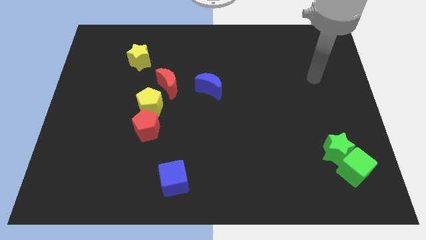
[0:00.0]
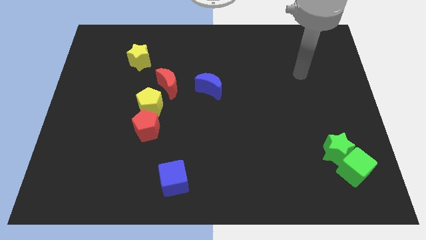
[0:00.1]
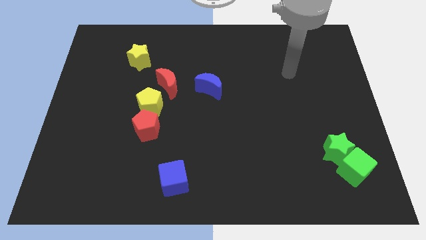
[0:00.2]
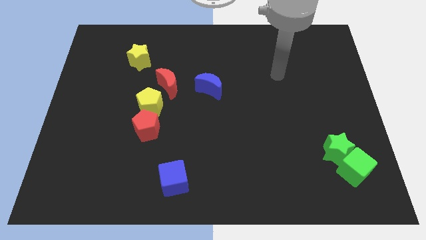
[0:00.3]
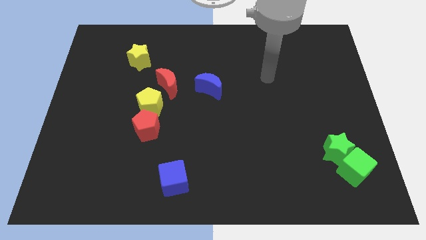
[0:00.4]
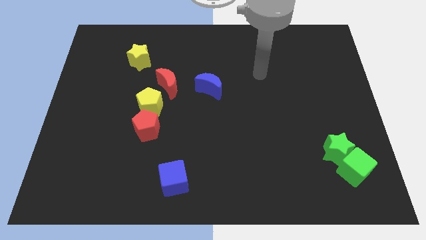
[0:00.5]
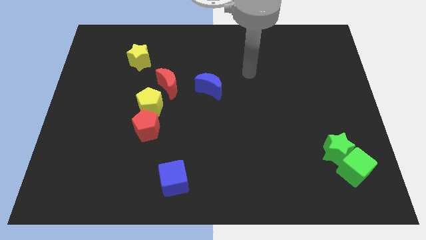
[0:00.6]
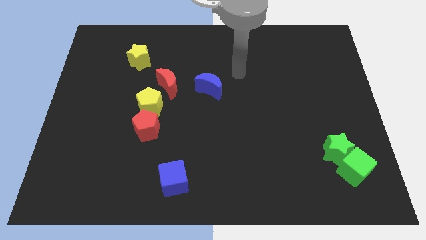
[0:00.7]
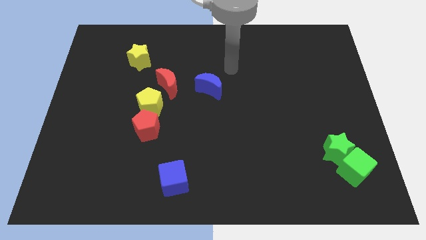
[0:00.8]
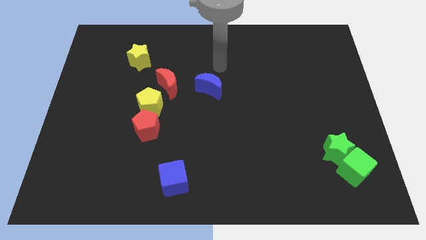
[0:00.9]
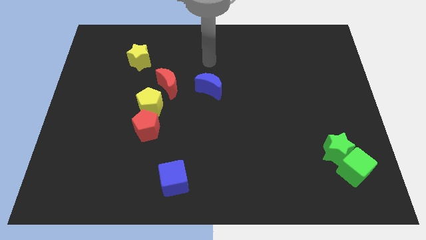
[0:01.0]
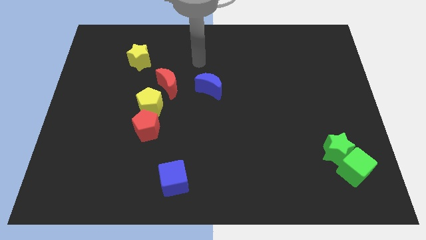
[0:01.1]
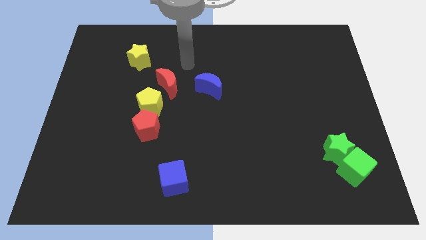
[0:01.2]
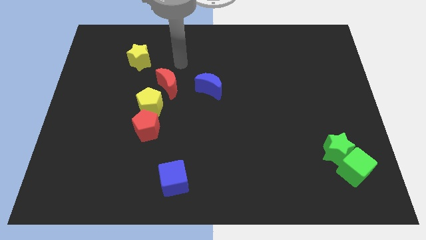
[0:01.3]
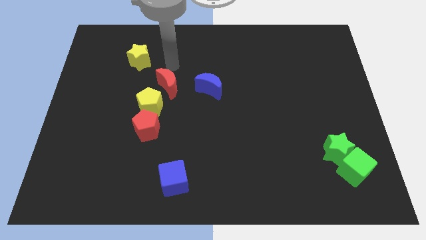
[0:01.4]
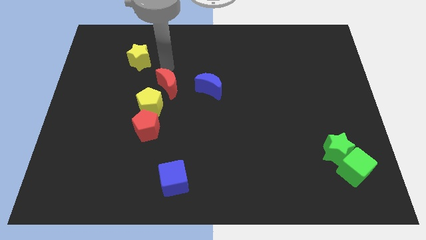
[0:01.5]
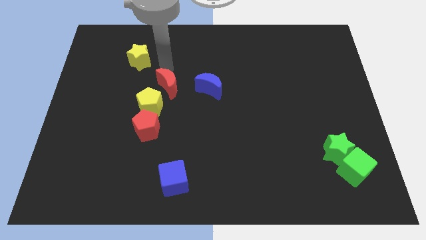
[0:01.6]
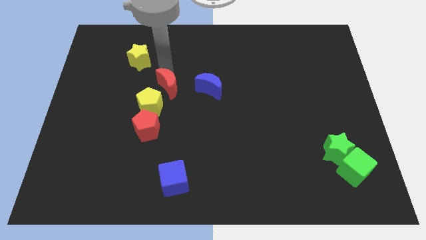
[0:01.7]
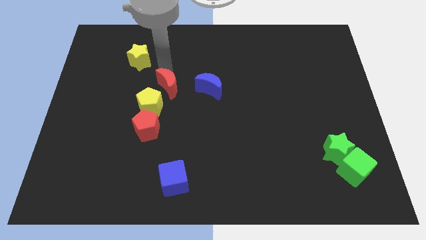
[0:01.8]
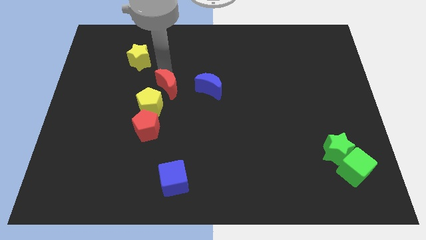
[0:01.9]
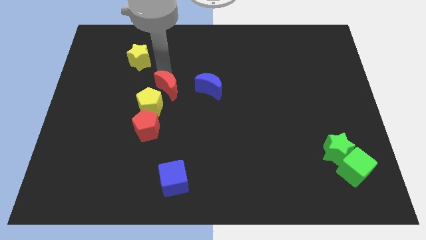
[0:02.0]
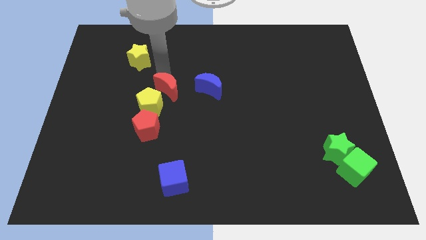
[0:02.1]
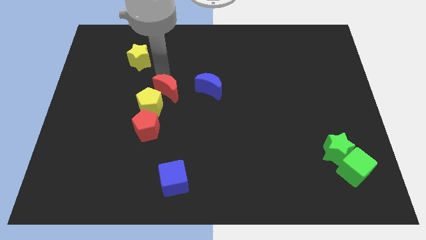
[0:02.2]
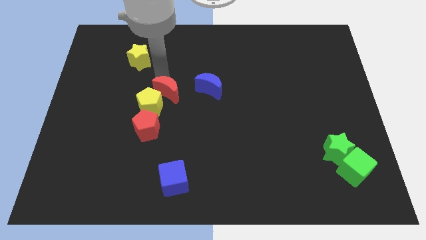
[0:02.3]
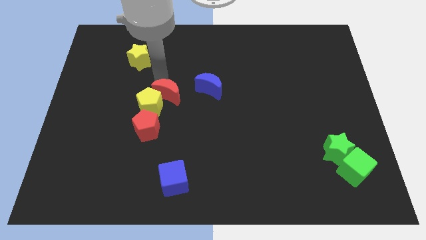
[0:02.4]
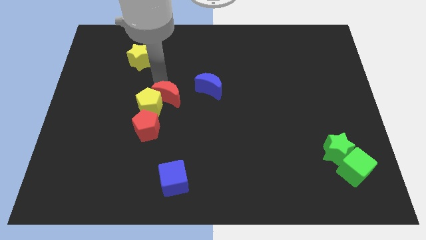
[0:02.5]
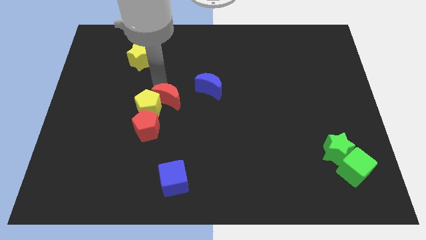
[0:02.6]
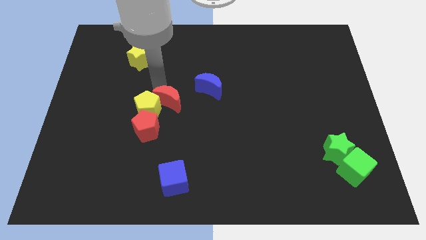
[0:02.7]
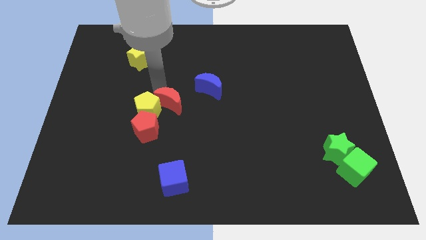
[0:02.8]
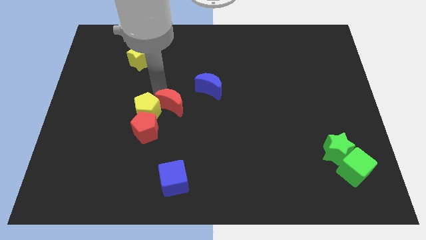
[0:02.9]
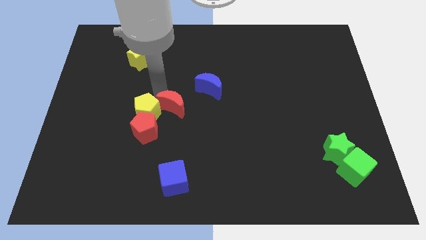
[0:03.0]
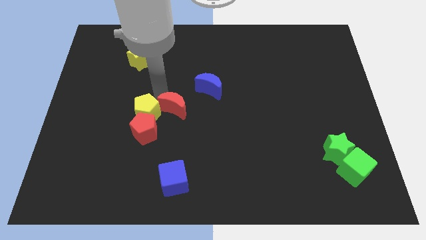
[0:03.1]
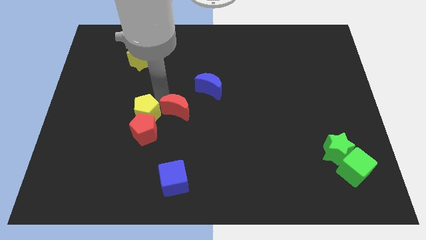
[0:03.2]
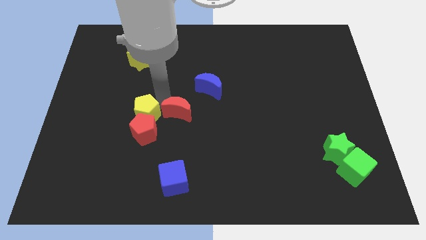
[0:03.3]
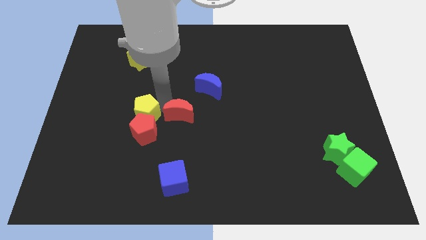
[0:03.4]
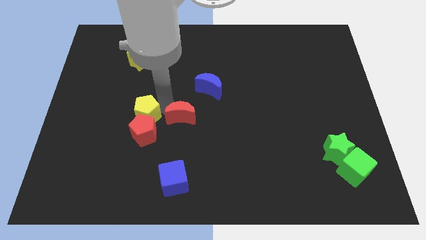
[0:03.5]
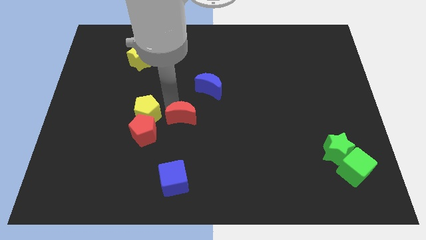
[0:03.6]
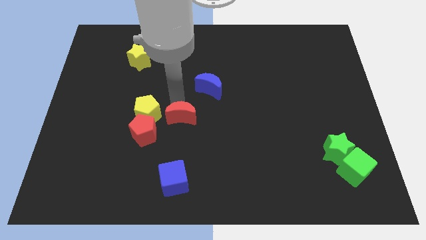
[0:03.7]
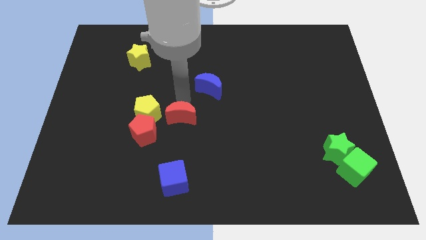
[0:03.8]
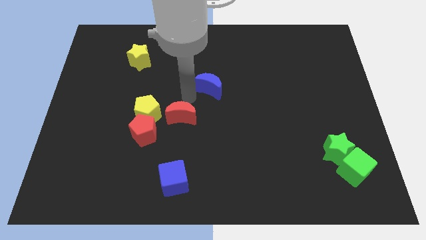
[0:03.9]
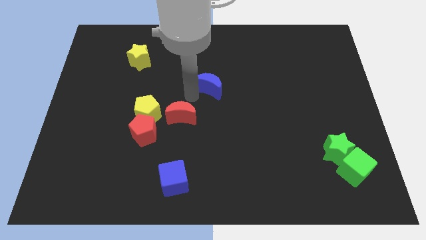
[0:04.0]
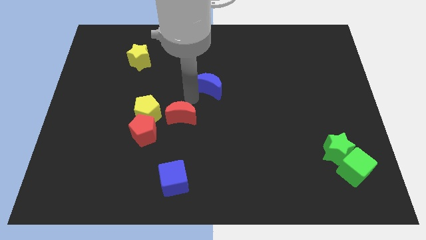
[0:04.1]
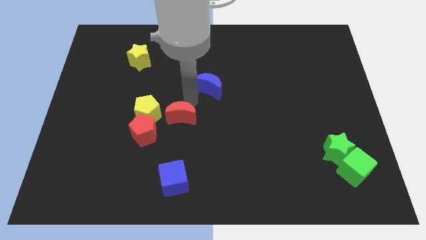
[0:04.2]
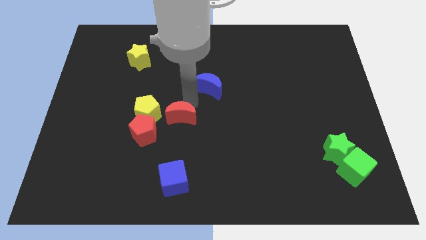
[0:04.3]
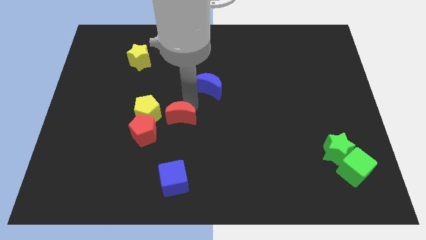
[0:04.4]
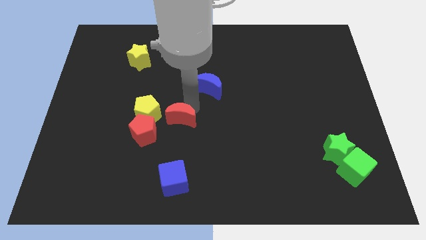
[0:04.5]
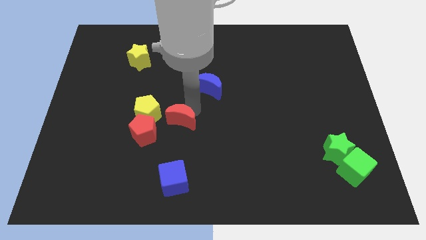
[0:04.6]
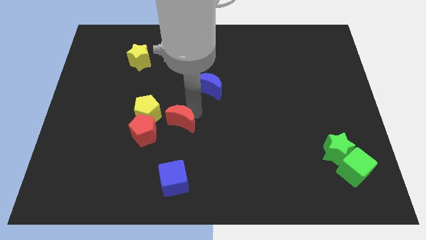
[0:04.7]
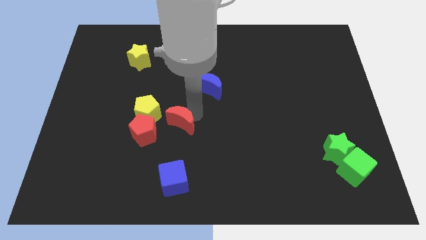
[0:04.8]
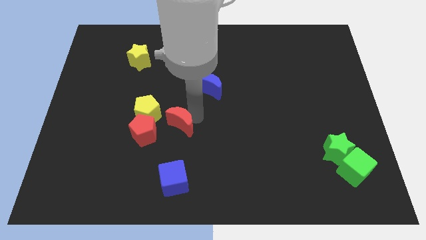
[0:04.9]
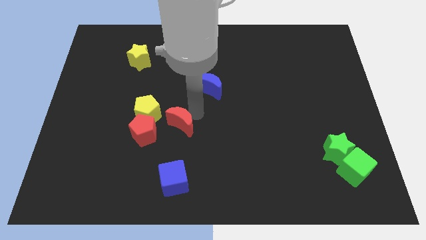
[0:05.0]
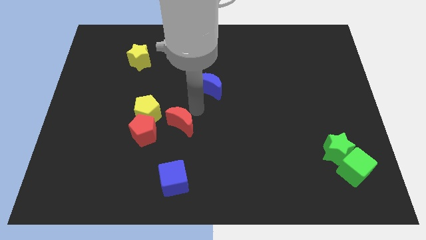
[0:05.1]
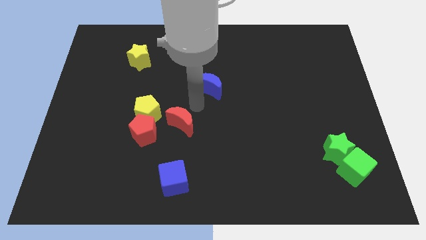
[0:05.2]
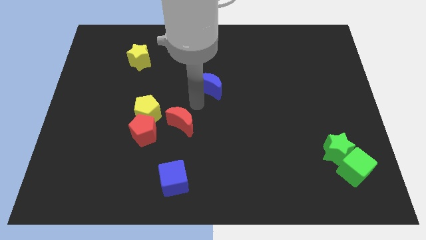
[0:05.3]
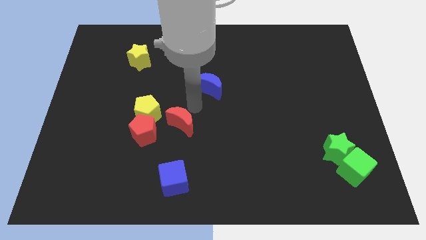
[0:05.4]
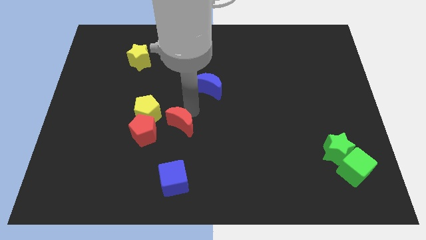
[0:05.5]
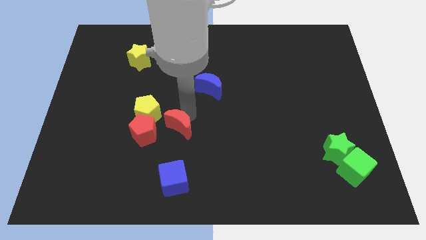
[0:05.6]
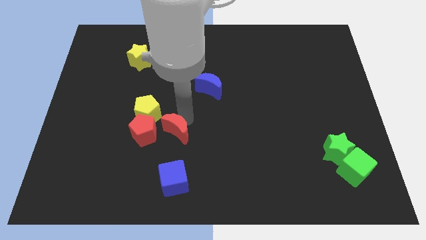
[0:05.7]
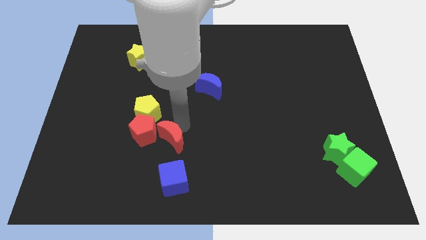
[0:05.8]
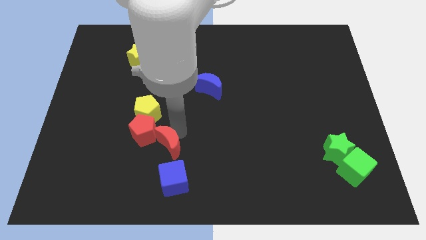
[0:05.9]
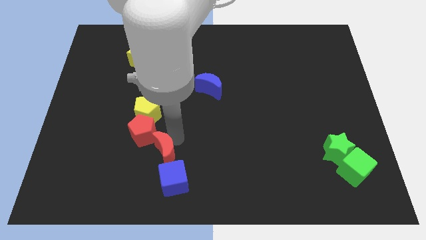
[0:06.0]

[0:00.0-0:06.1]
put the red moon to the top left side of the blue cube
